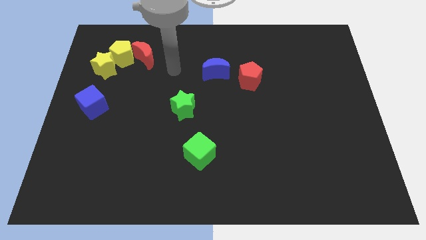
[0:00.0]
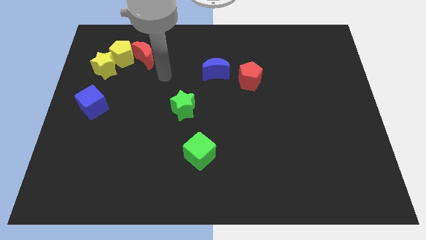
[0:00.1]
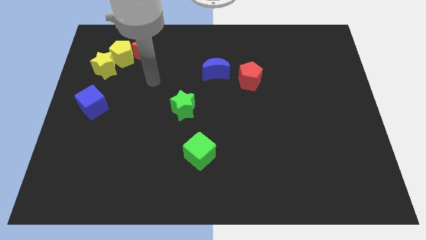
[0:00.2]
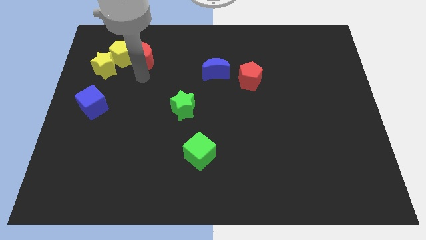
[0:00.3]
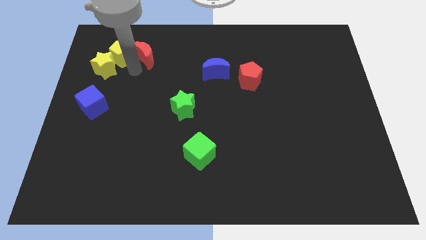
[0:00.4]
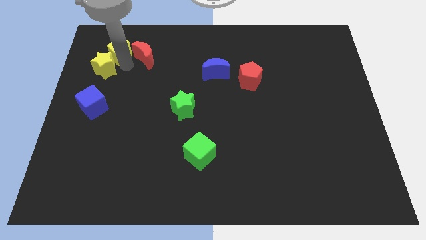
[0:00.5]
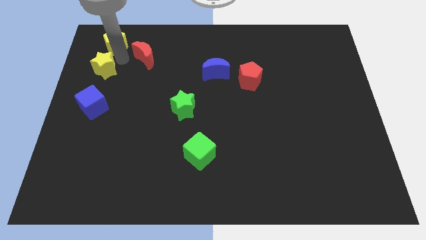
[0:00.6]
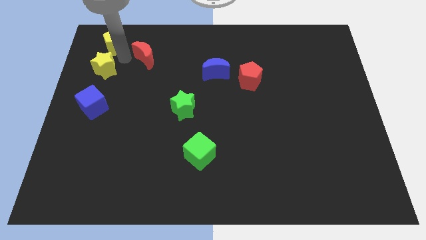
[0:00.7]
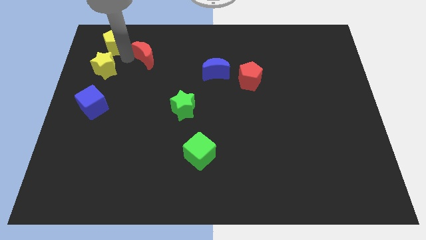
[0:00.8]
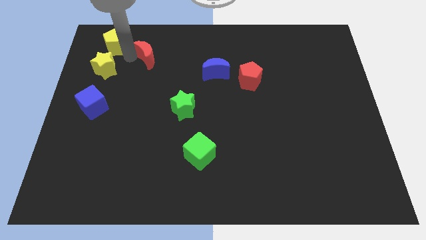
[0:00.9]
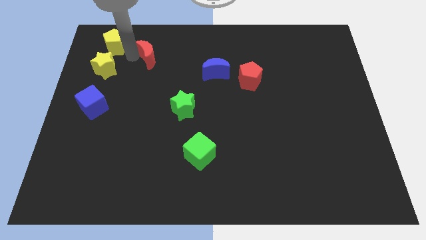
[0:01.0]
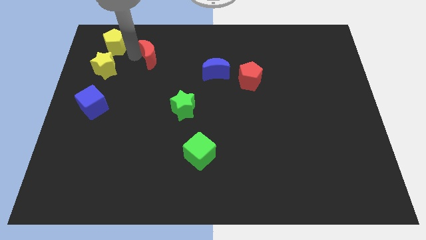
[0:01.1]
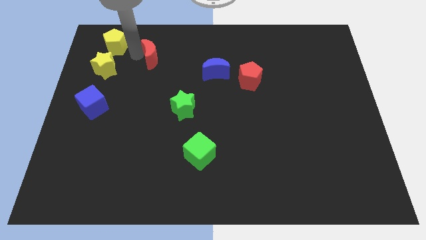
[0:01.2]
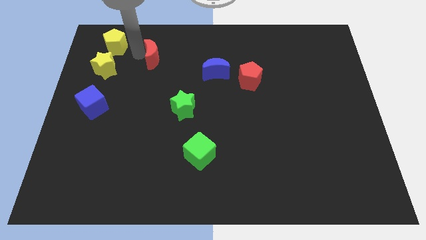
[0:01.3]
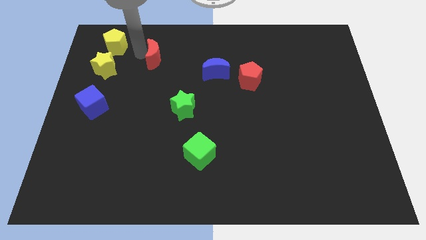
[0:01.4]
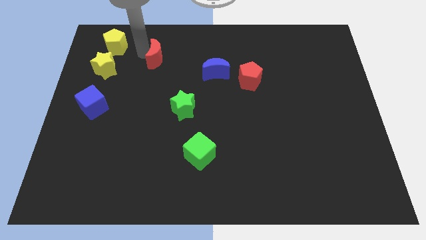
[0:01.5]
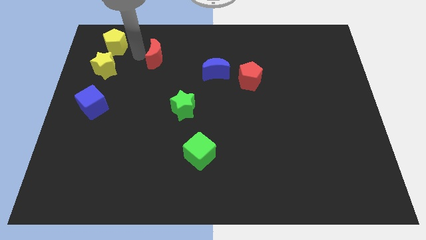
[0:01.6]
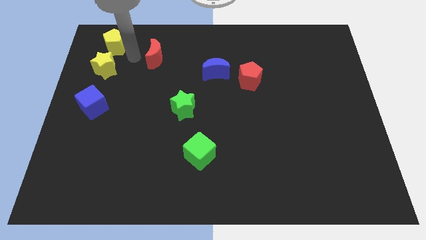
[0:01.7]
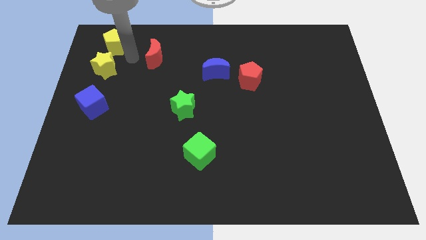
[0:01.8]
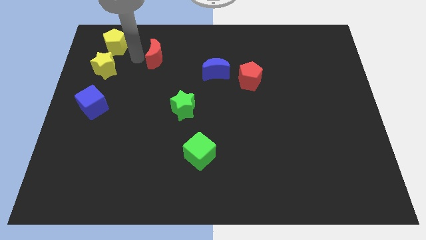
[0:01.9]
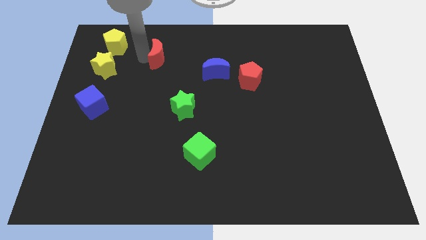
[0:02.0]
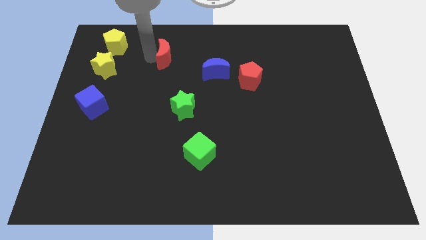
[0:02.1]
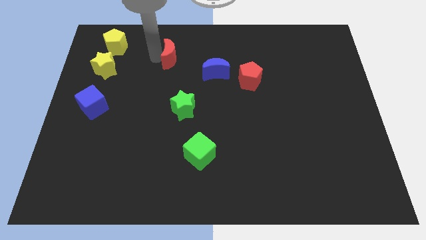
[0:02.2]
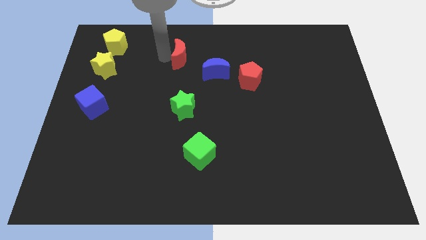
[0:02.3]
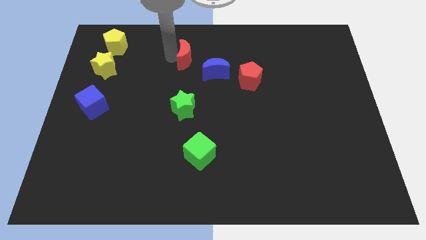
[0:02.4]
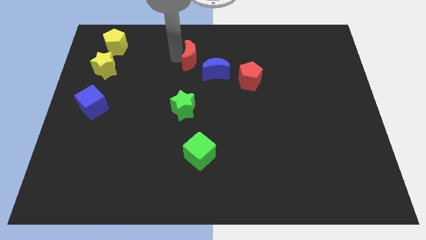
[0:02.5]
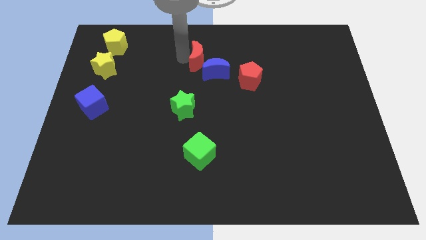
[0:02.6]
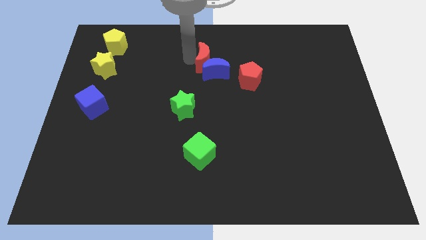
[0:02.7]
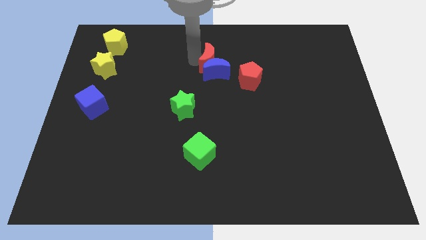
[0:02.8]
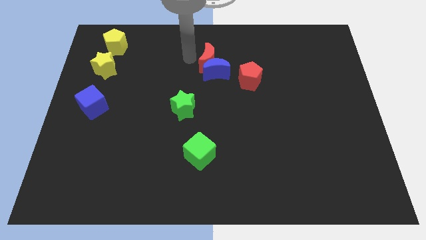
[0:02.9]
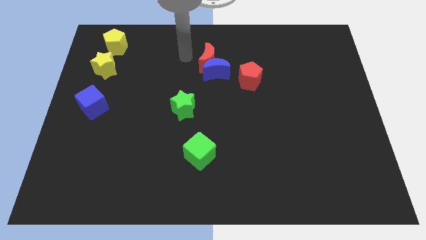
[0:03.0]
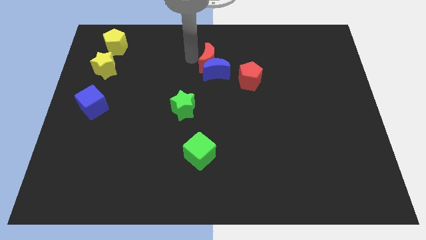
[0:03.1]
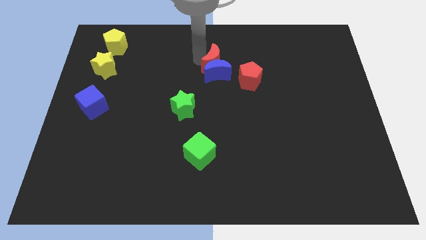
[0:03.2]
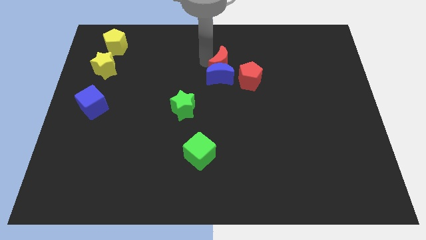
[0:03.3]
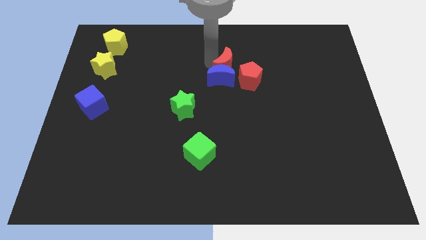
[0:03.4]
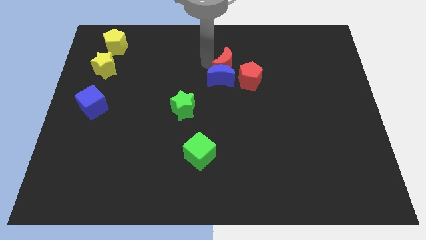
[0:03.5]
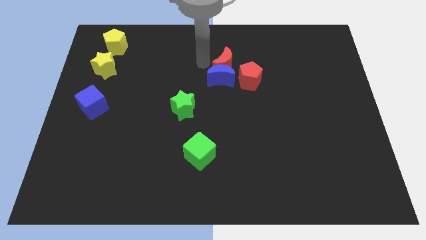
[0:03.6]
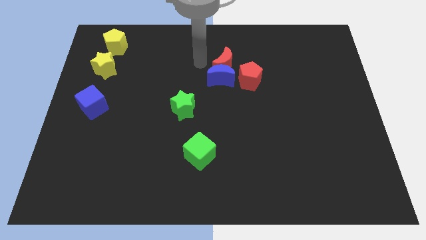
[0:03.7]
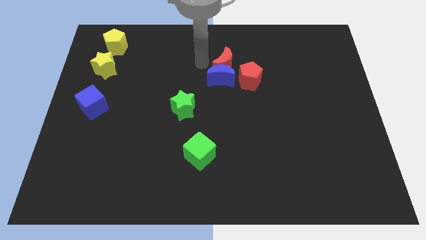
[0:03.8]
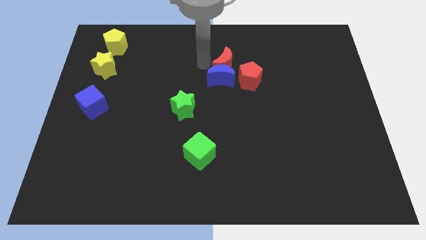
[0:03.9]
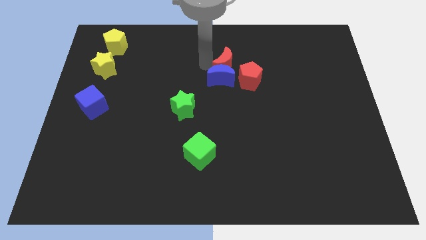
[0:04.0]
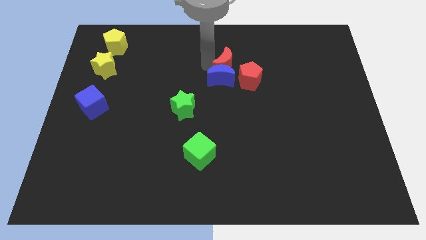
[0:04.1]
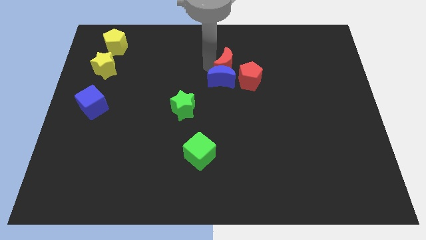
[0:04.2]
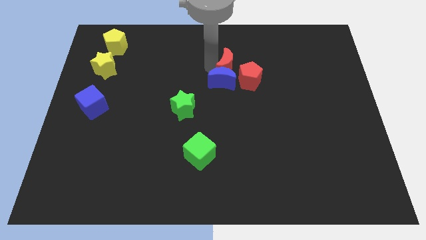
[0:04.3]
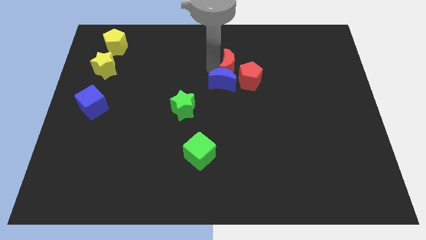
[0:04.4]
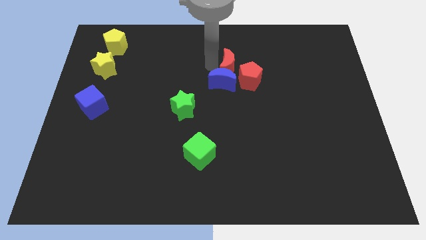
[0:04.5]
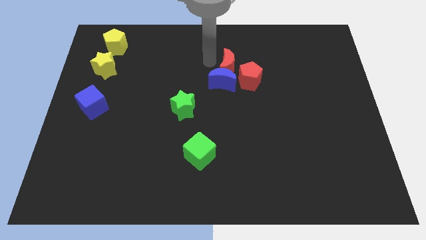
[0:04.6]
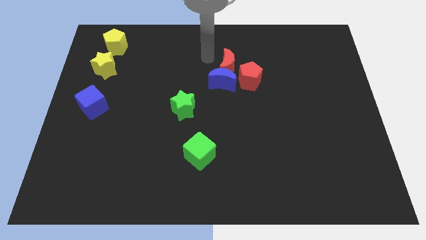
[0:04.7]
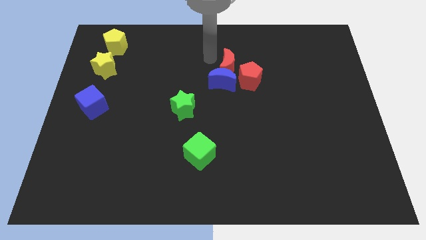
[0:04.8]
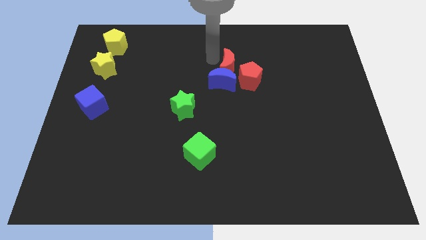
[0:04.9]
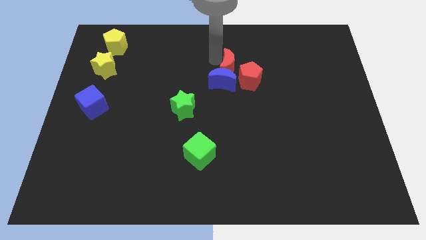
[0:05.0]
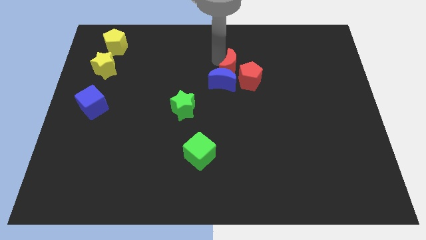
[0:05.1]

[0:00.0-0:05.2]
push the red moon next to the red pentagon

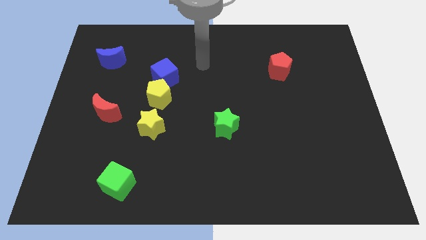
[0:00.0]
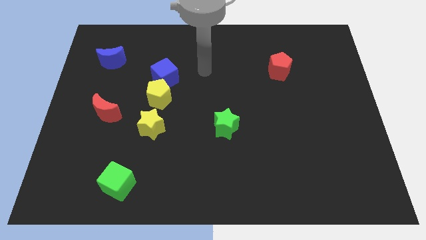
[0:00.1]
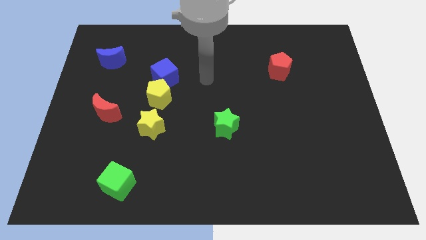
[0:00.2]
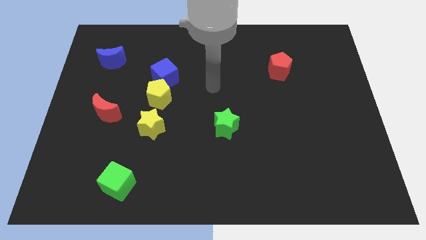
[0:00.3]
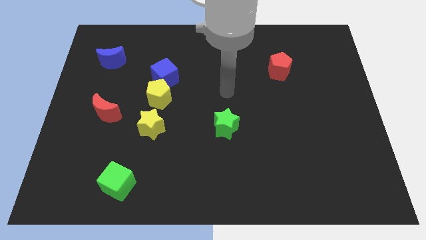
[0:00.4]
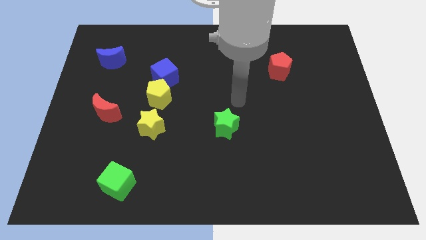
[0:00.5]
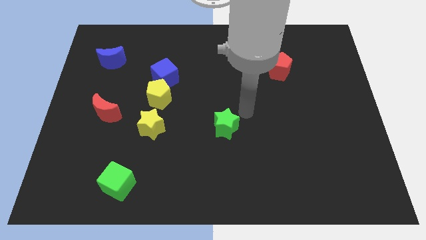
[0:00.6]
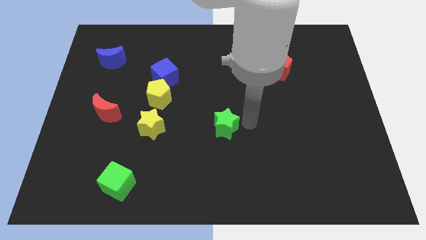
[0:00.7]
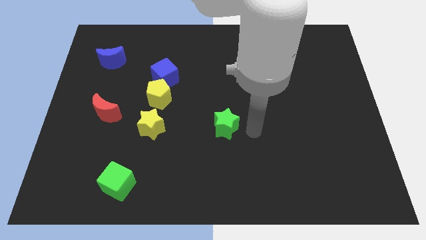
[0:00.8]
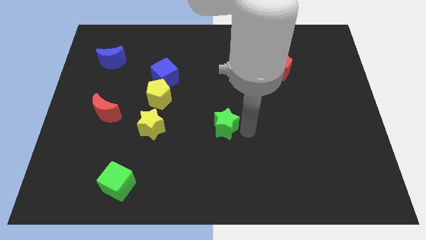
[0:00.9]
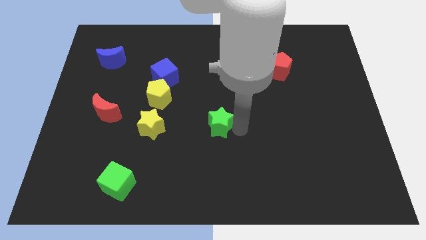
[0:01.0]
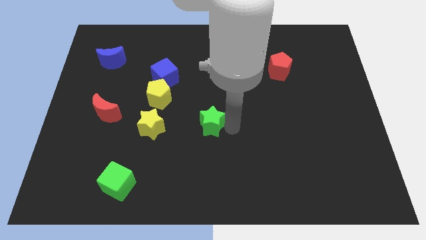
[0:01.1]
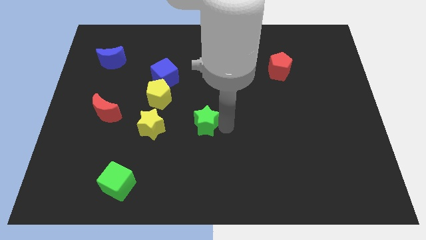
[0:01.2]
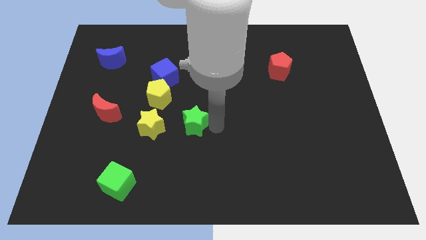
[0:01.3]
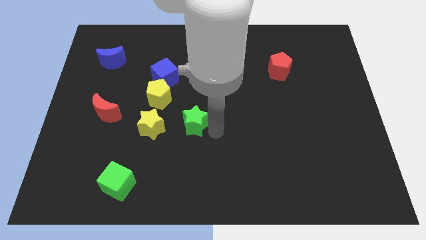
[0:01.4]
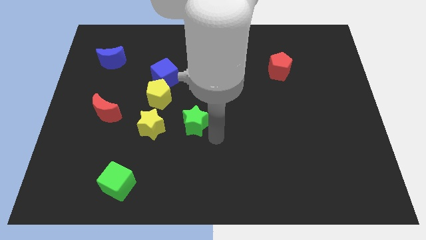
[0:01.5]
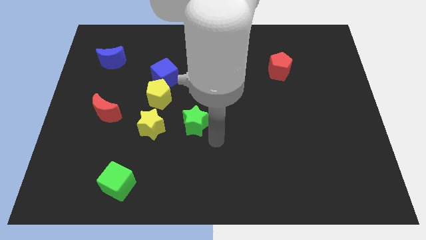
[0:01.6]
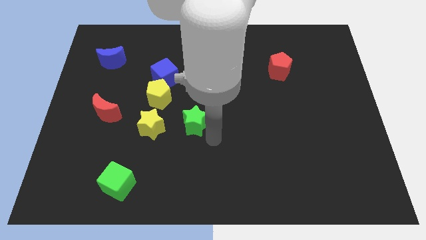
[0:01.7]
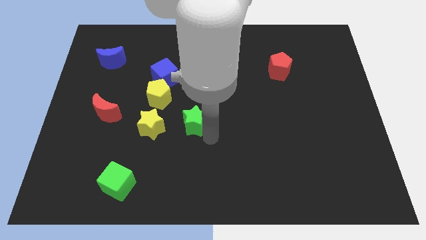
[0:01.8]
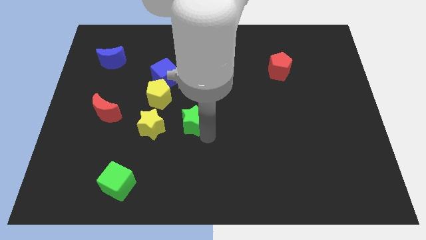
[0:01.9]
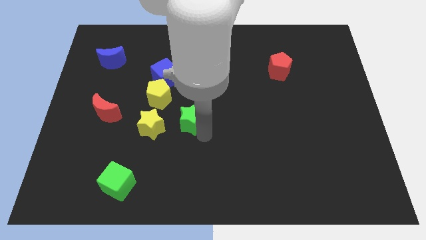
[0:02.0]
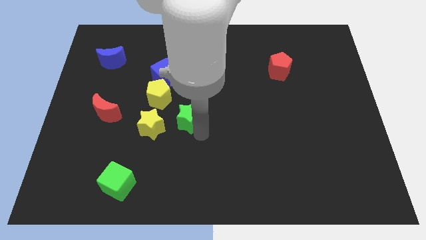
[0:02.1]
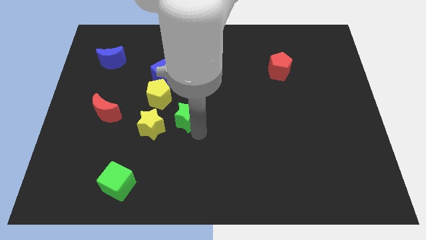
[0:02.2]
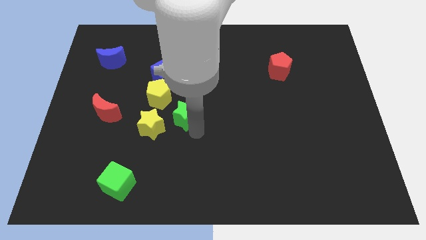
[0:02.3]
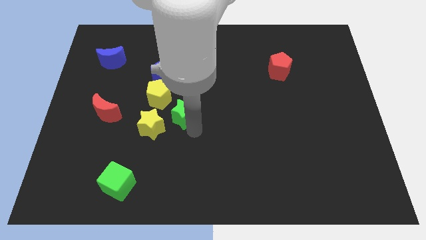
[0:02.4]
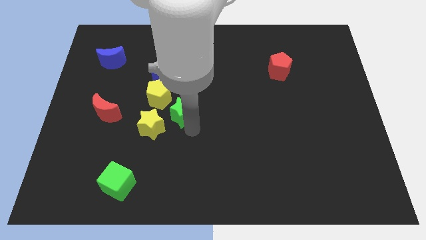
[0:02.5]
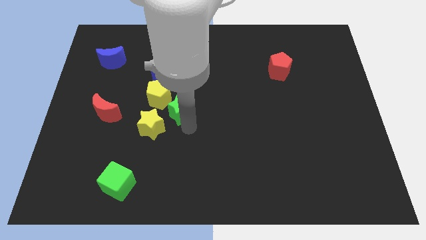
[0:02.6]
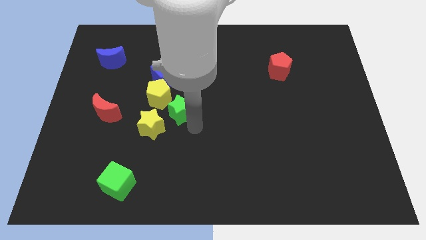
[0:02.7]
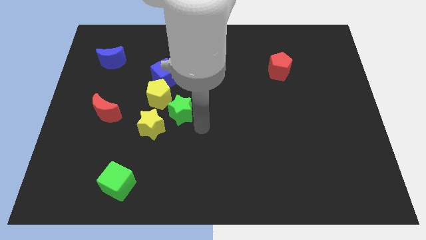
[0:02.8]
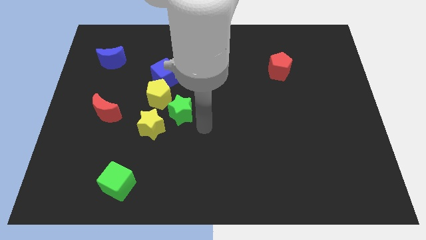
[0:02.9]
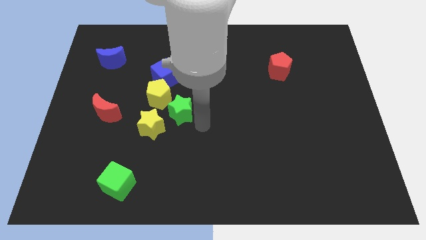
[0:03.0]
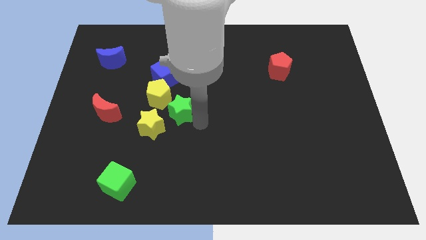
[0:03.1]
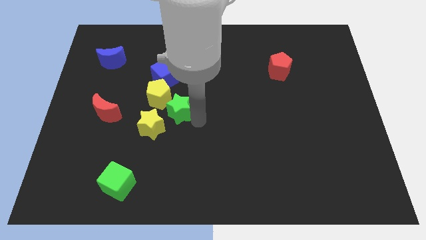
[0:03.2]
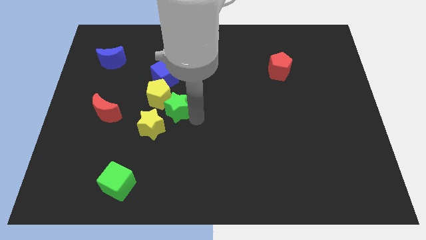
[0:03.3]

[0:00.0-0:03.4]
put the green star towards the yellow pentagon
